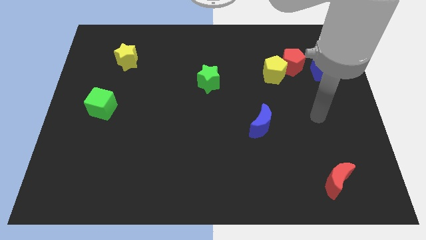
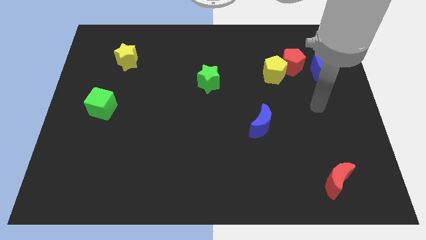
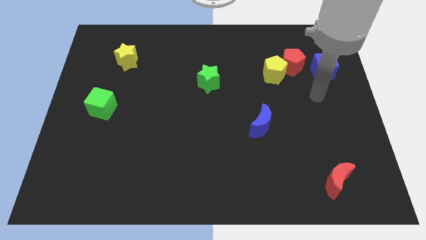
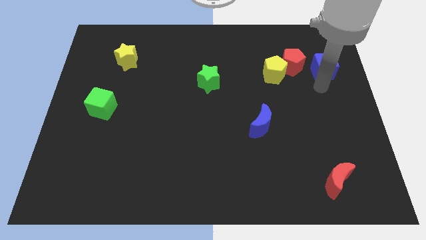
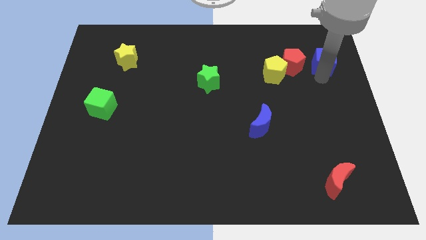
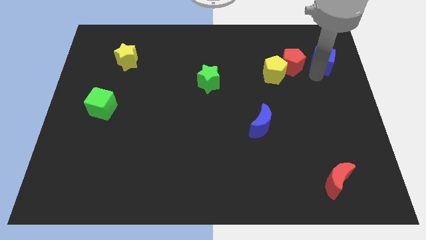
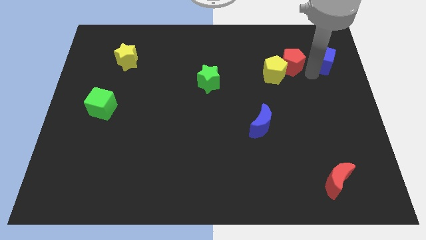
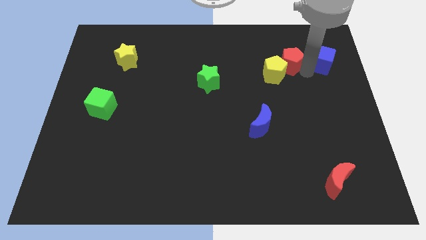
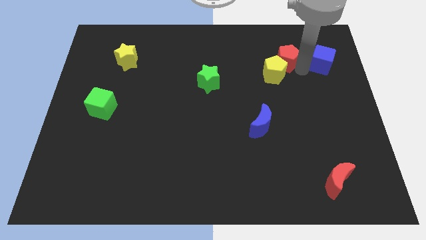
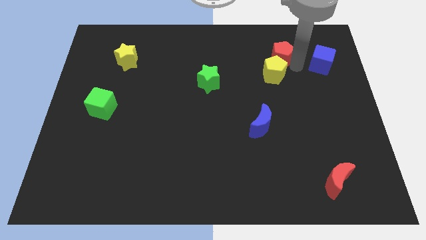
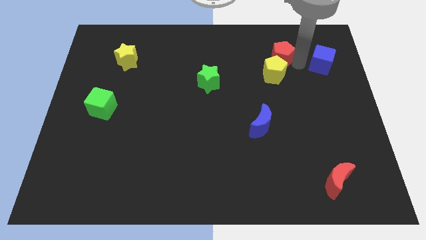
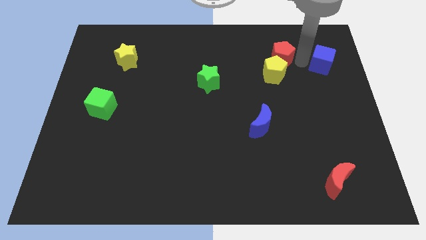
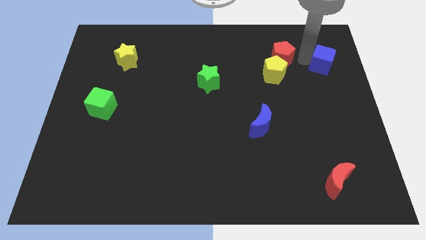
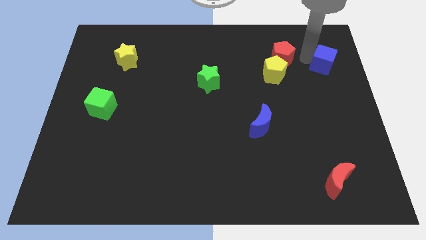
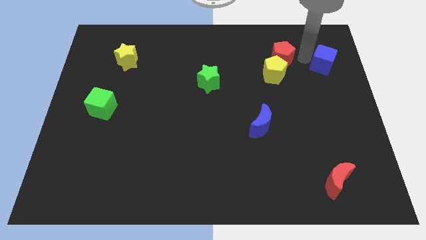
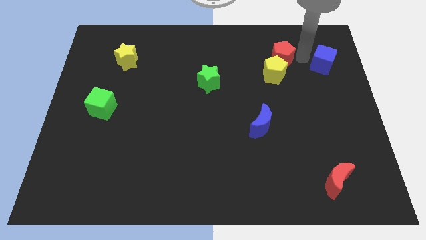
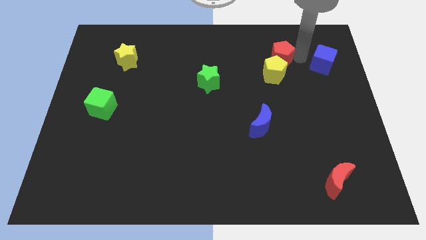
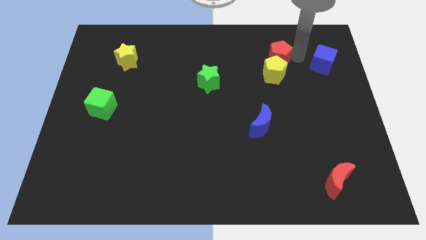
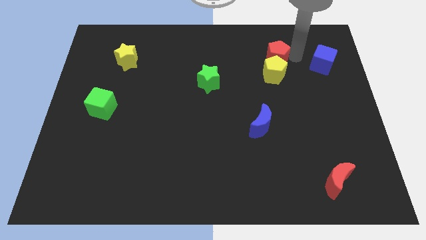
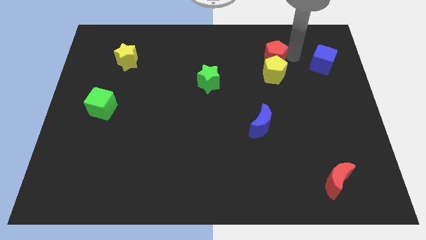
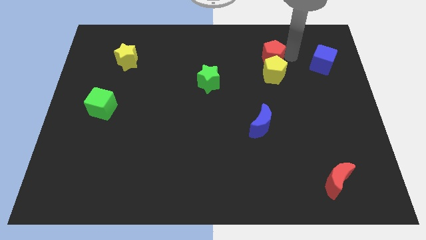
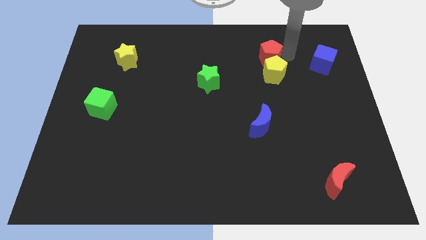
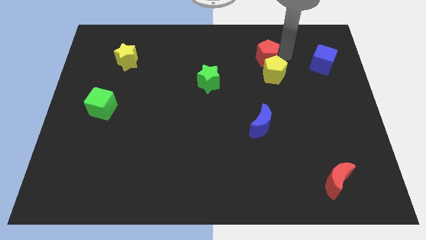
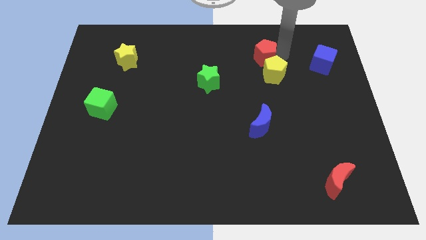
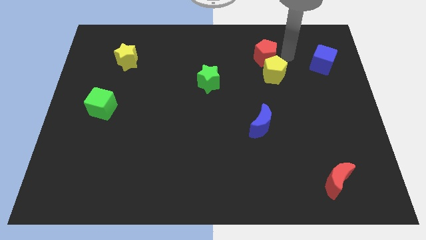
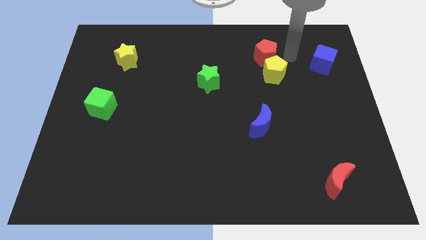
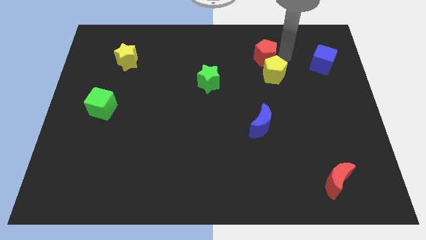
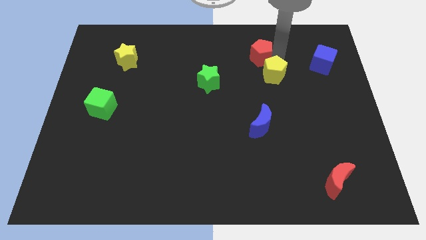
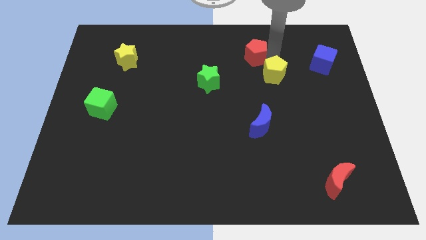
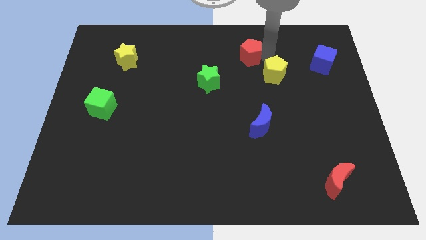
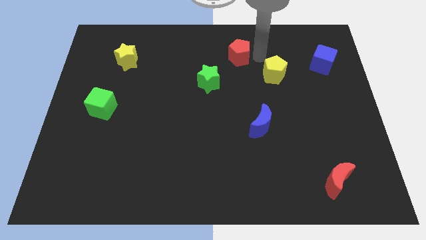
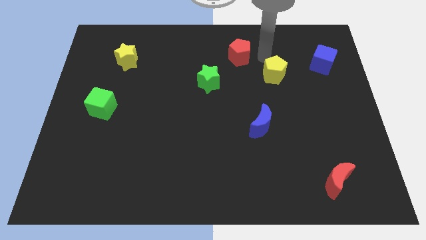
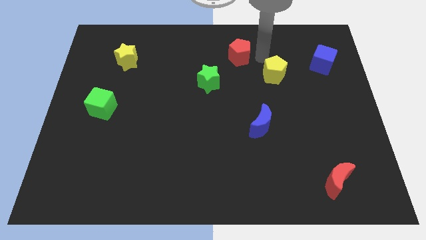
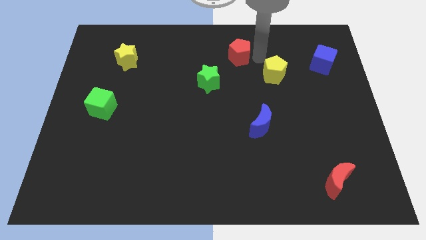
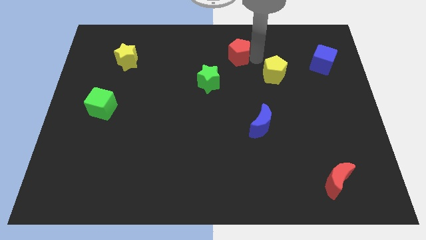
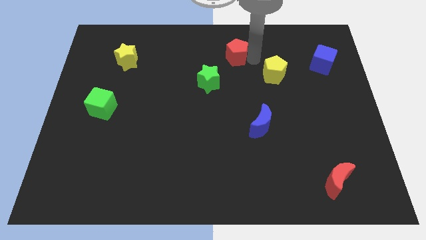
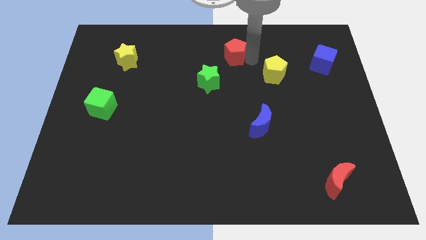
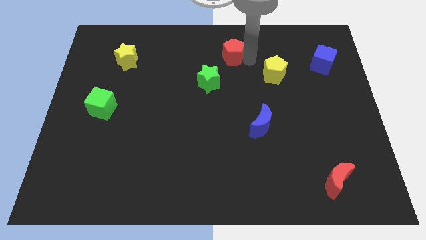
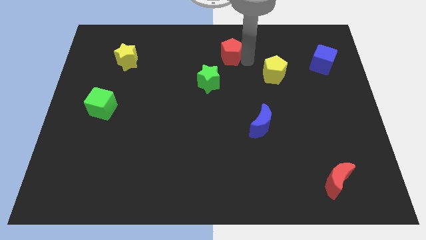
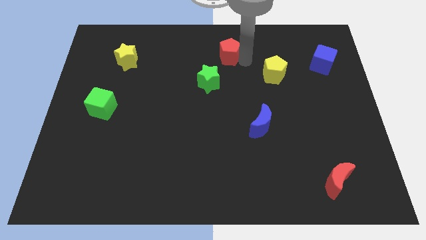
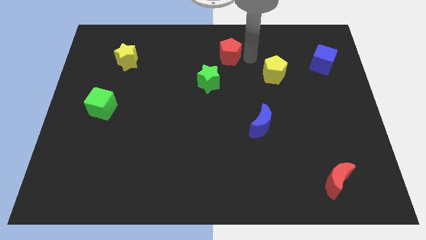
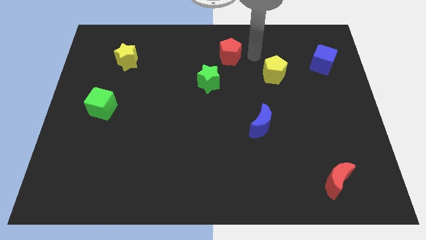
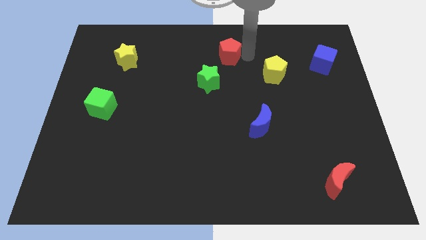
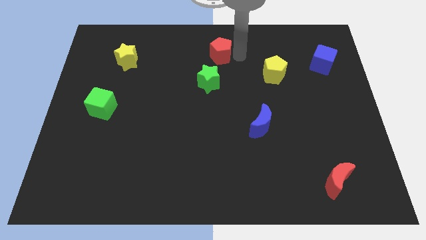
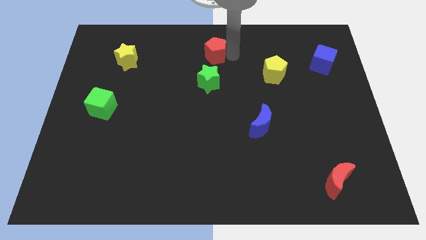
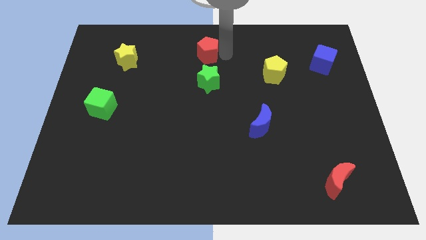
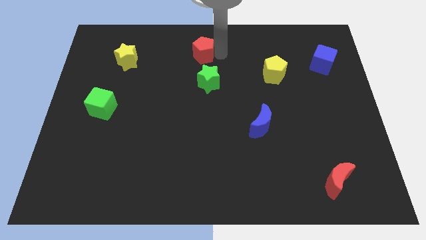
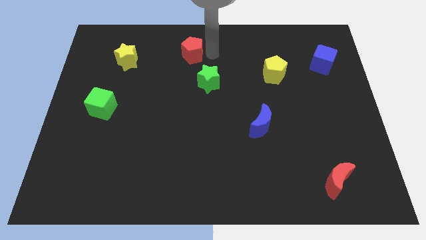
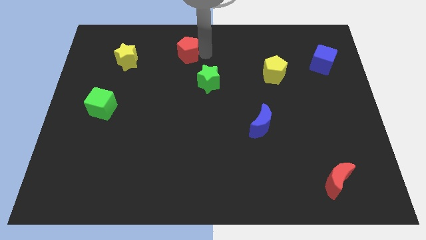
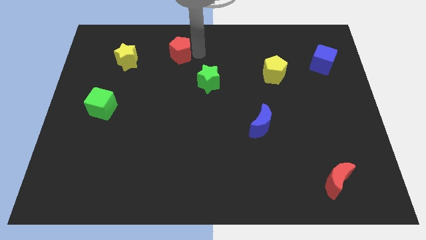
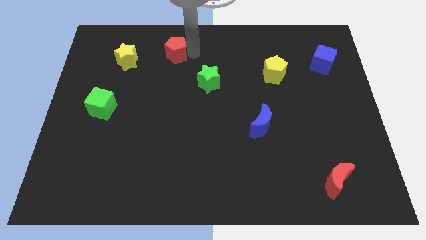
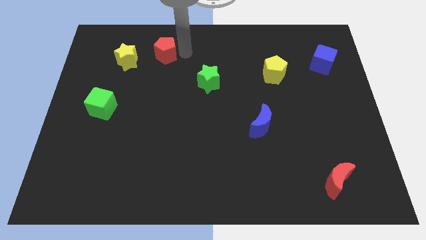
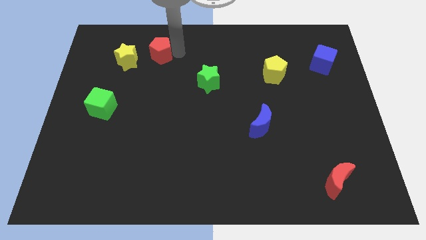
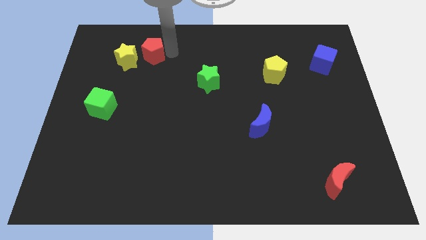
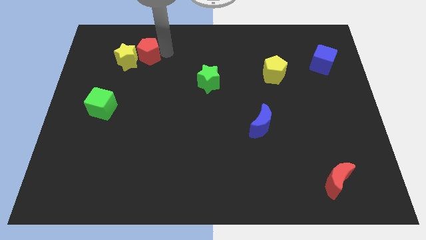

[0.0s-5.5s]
move the red pentagon close to the yellow star

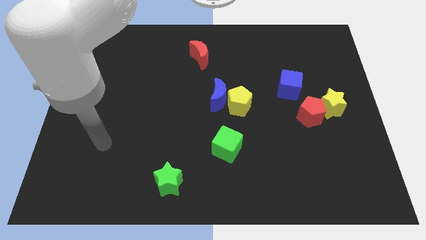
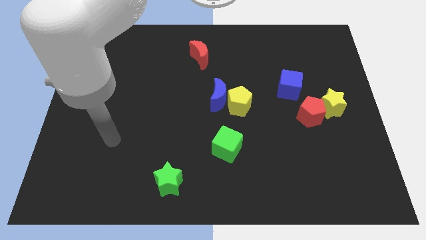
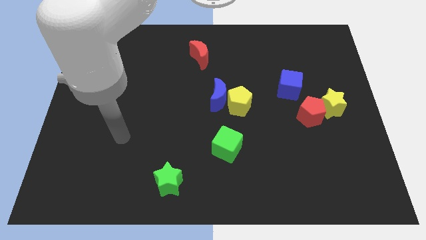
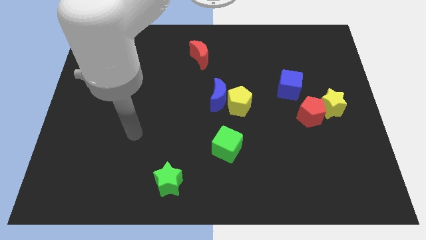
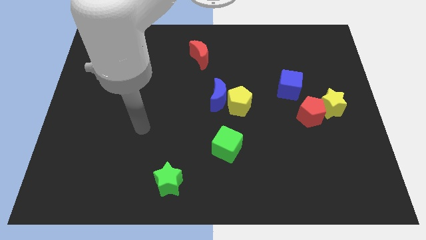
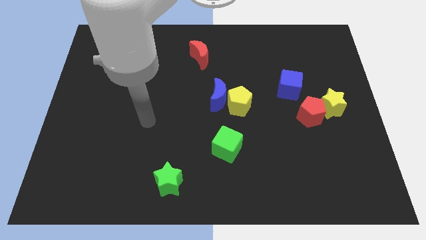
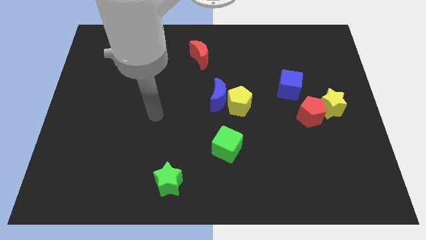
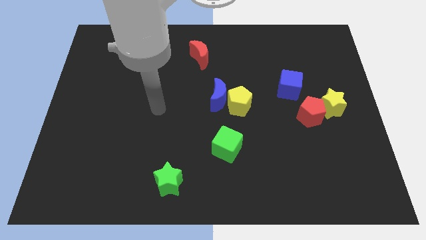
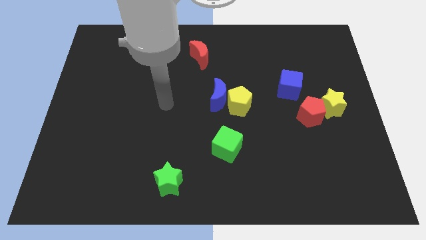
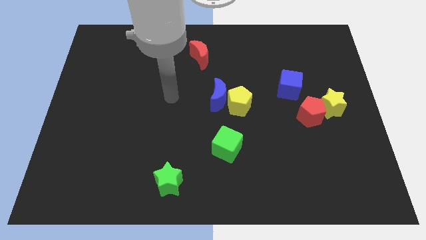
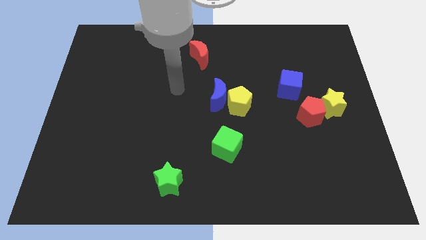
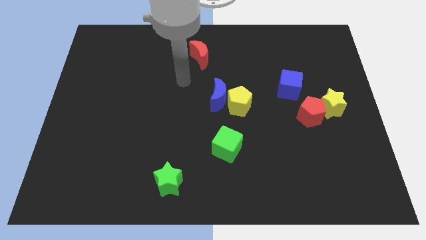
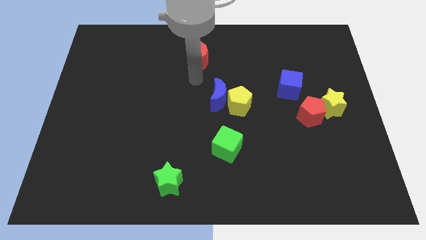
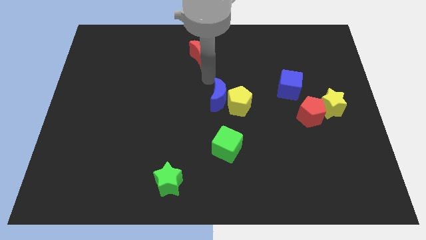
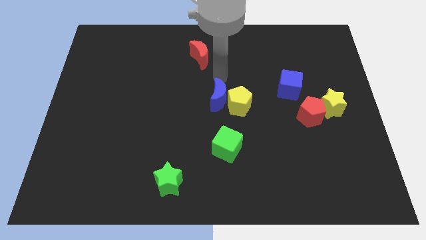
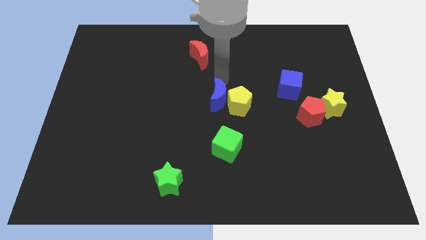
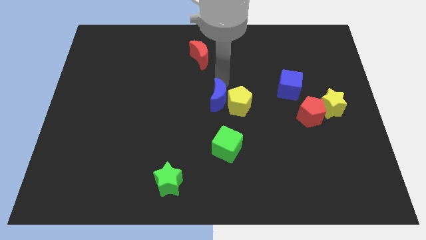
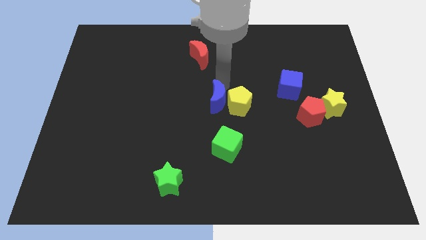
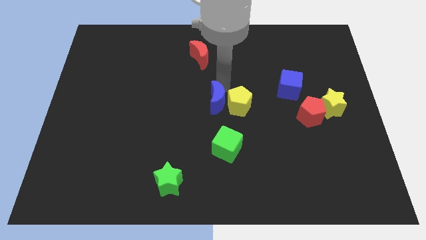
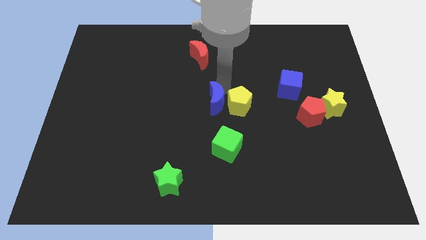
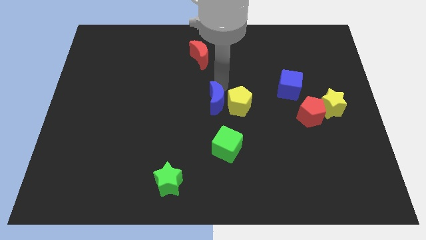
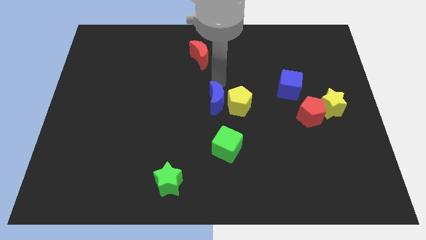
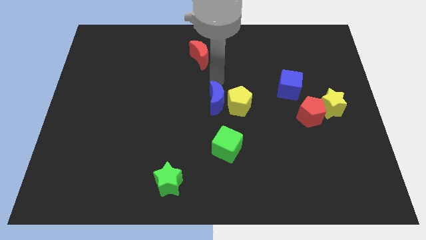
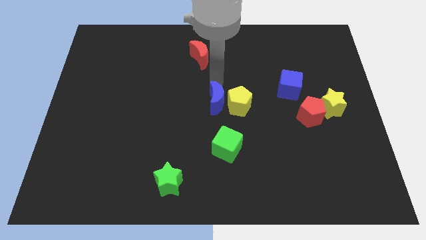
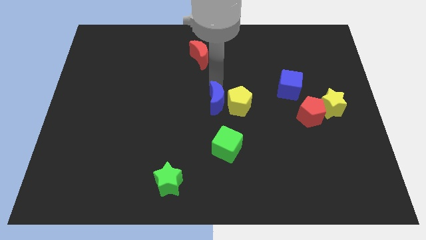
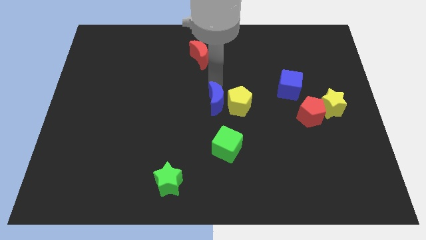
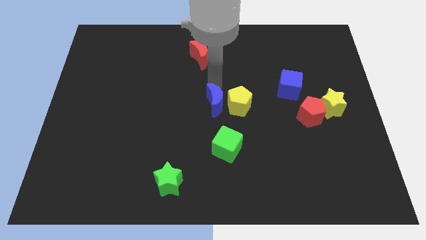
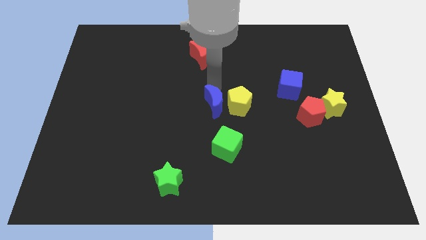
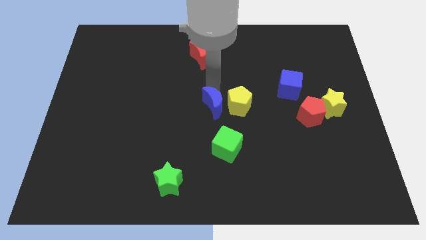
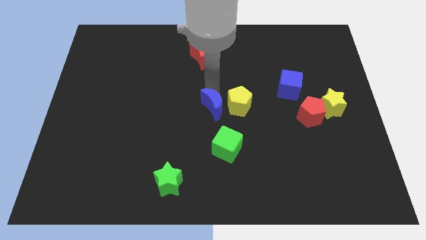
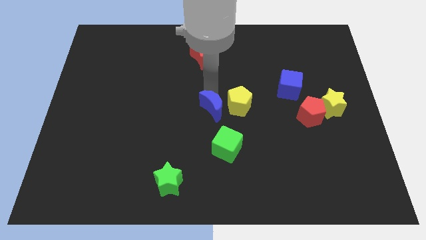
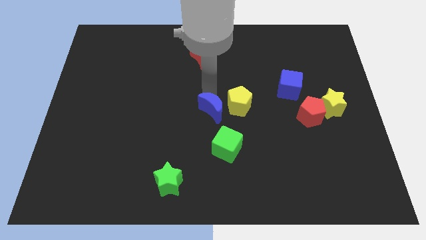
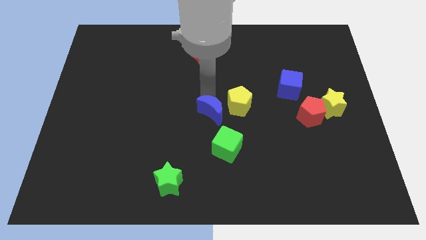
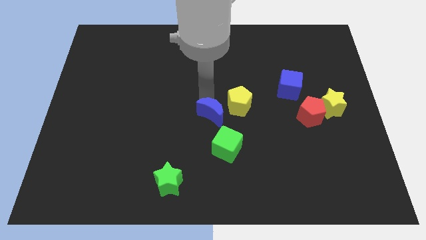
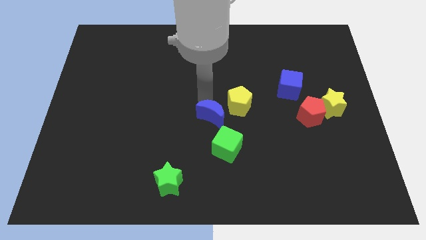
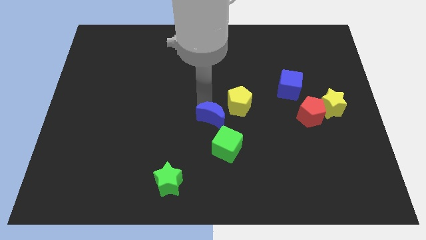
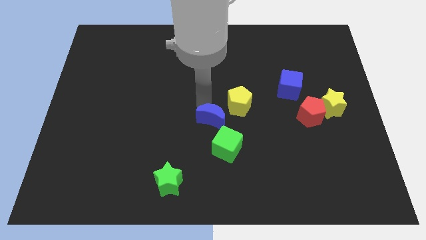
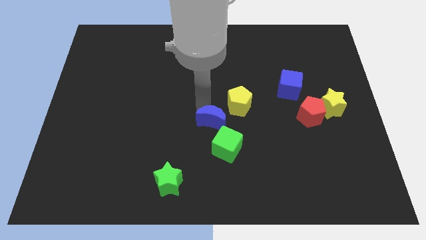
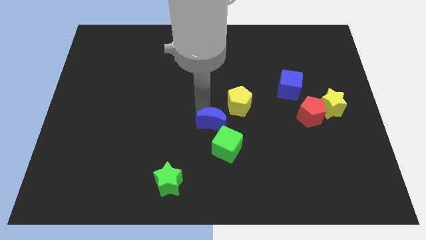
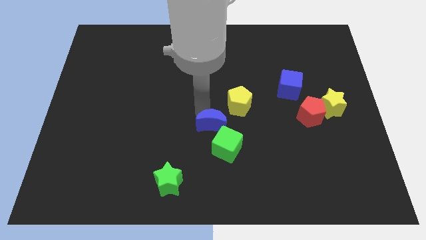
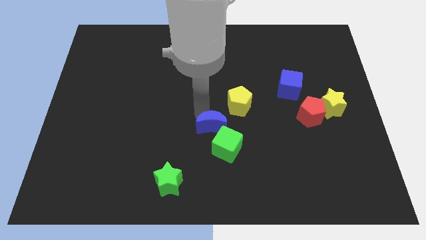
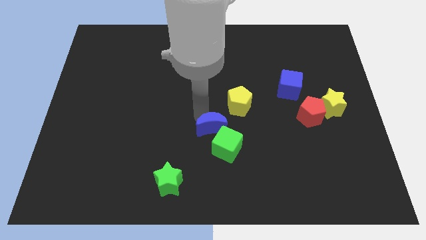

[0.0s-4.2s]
put the blue moon next to the green cube
